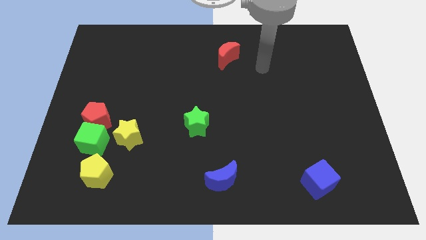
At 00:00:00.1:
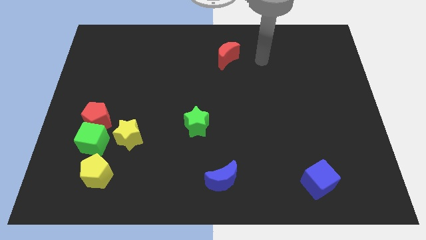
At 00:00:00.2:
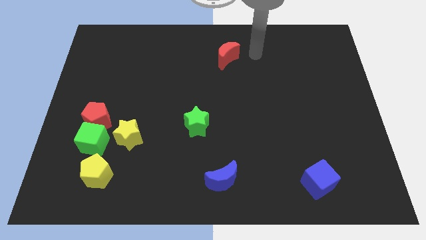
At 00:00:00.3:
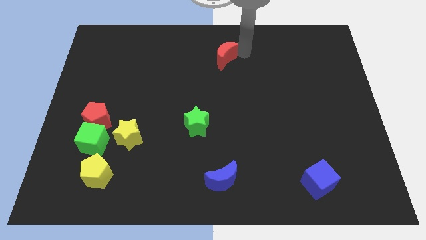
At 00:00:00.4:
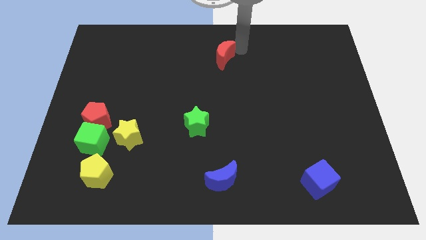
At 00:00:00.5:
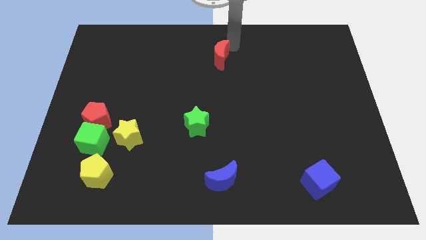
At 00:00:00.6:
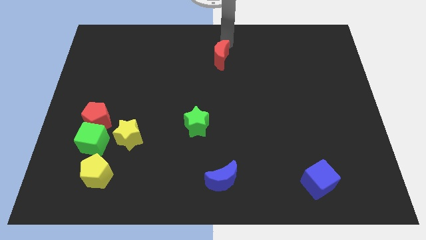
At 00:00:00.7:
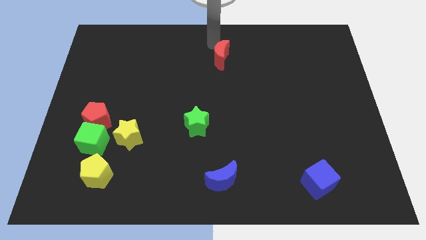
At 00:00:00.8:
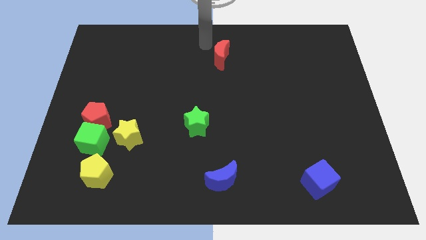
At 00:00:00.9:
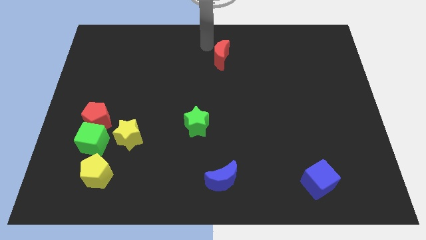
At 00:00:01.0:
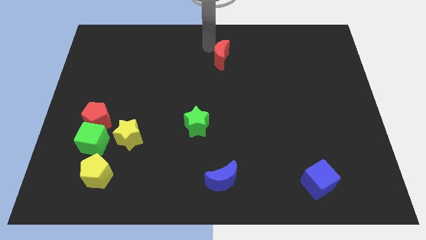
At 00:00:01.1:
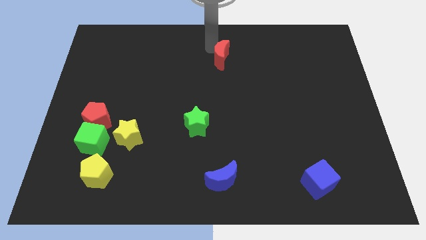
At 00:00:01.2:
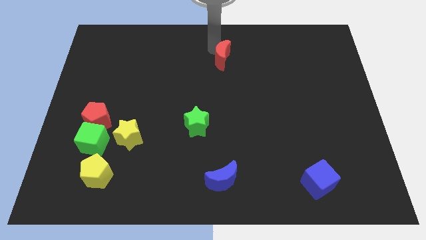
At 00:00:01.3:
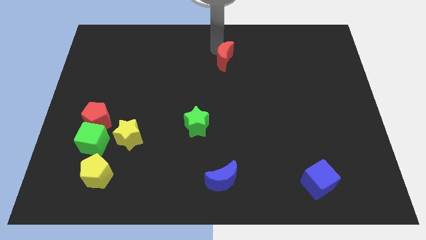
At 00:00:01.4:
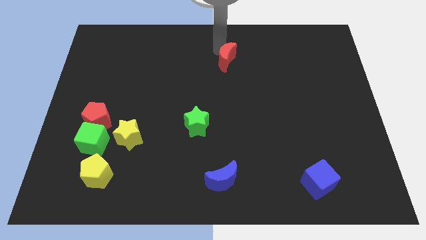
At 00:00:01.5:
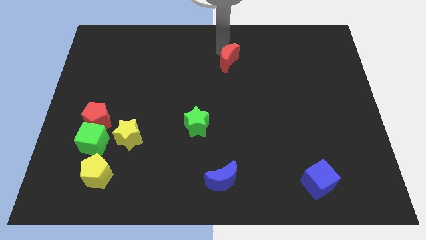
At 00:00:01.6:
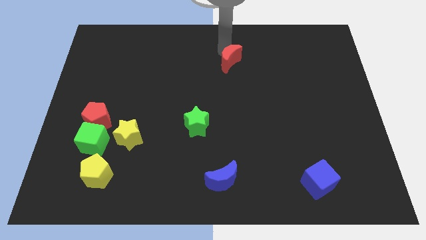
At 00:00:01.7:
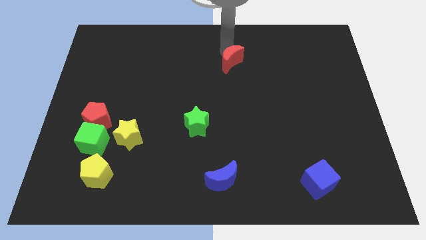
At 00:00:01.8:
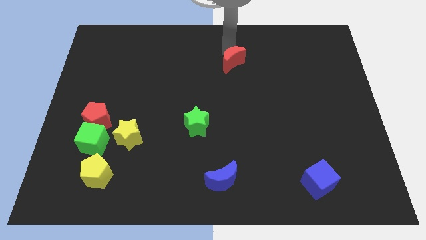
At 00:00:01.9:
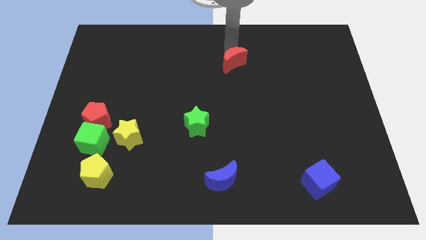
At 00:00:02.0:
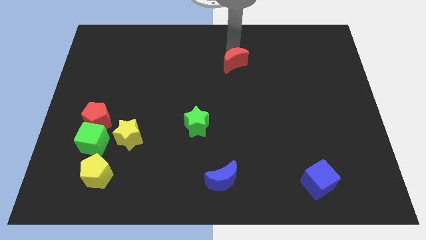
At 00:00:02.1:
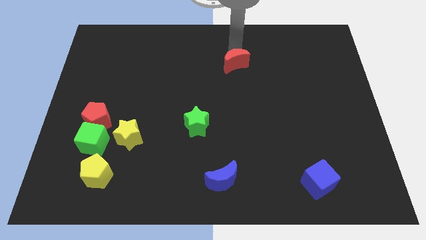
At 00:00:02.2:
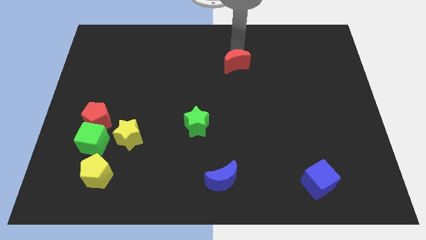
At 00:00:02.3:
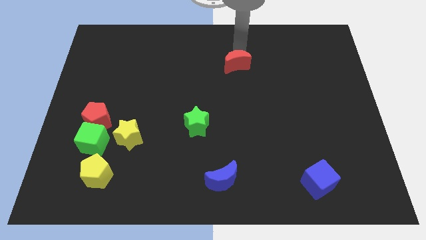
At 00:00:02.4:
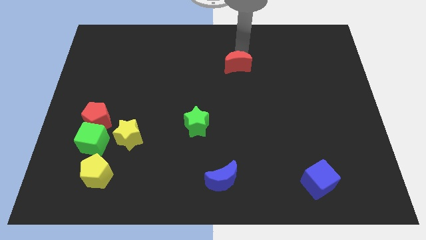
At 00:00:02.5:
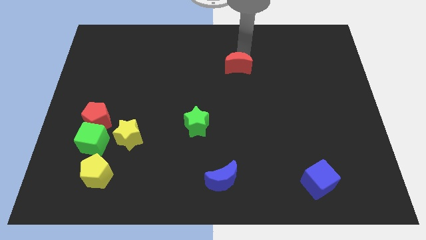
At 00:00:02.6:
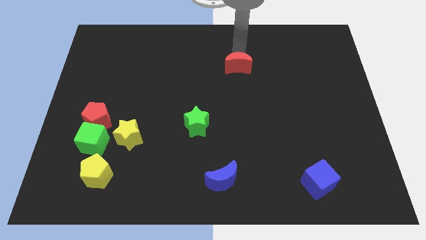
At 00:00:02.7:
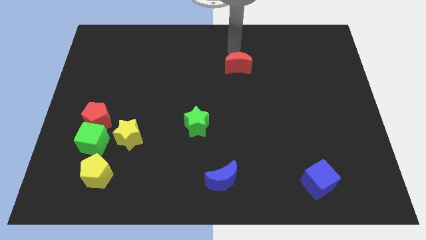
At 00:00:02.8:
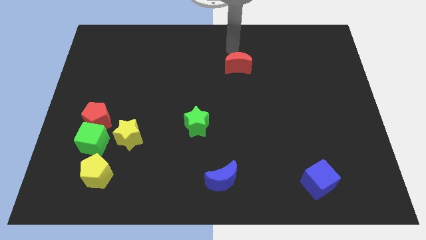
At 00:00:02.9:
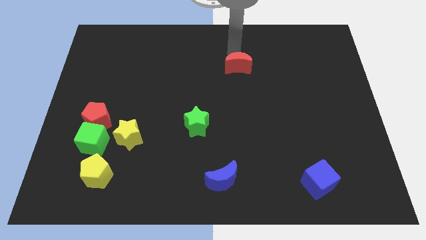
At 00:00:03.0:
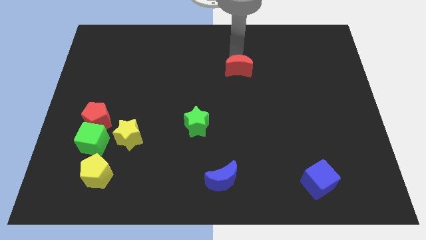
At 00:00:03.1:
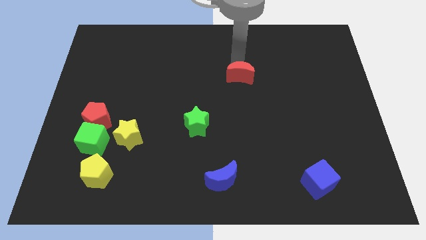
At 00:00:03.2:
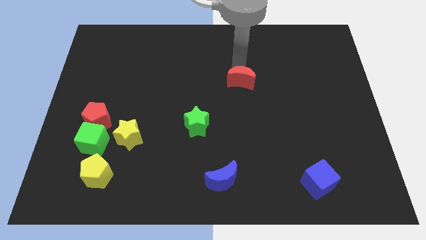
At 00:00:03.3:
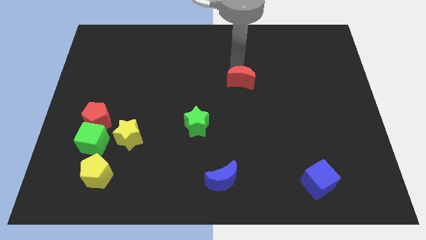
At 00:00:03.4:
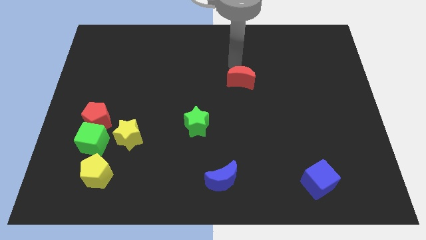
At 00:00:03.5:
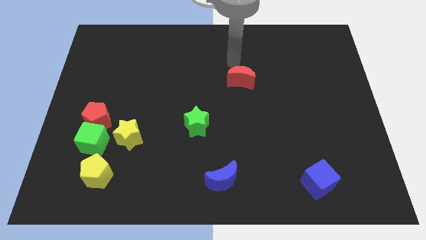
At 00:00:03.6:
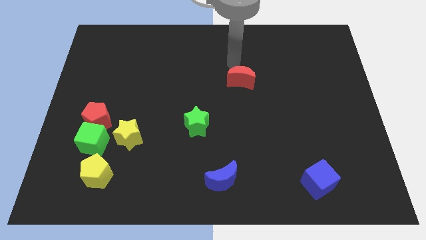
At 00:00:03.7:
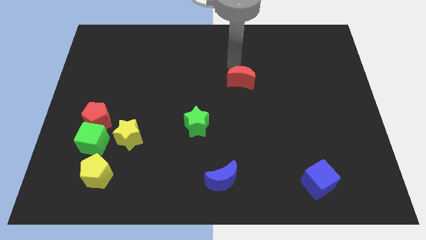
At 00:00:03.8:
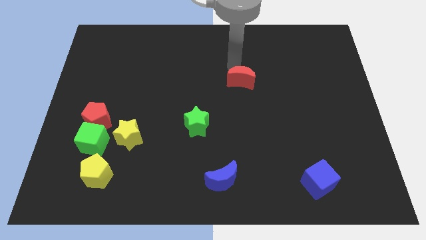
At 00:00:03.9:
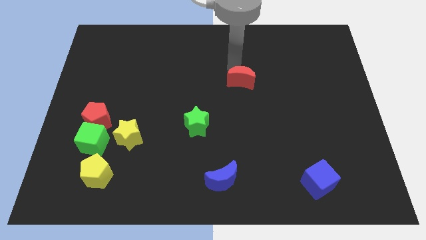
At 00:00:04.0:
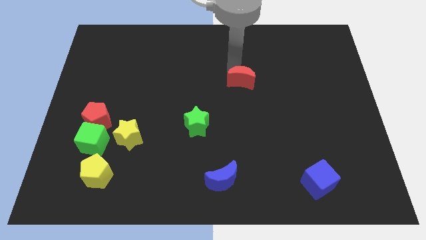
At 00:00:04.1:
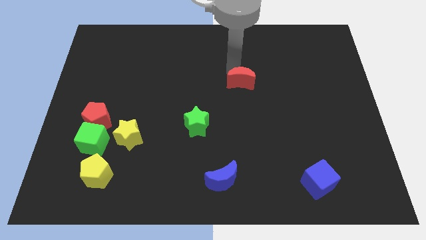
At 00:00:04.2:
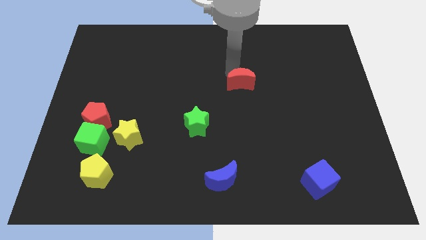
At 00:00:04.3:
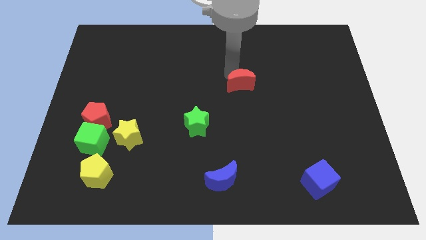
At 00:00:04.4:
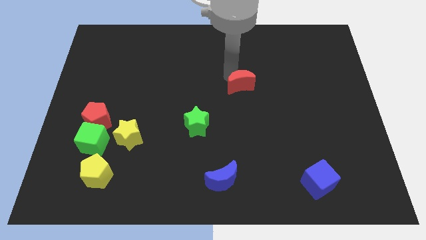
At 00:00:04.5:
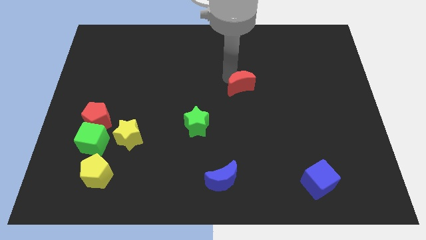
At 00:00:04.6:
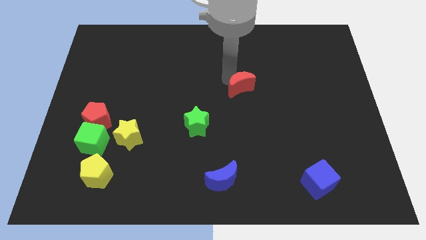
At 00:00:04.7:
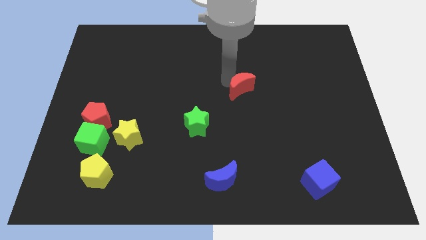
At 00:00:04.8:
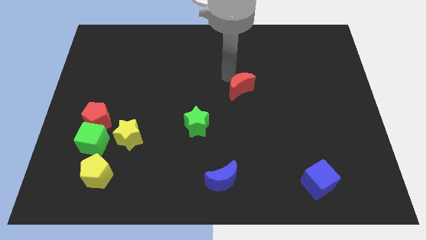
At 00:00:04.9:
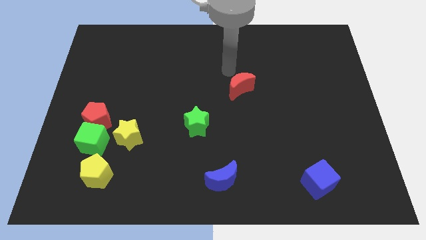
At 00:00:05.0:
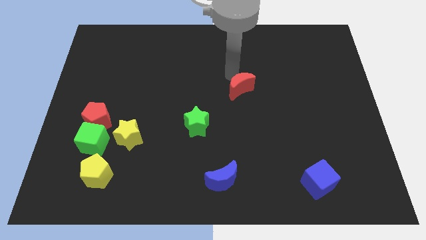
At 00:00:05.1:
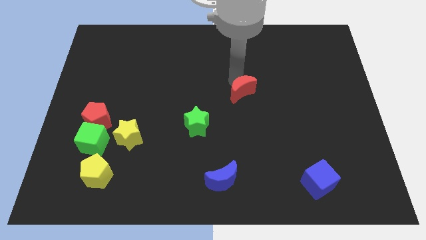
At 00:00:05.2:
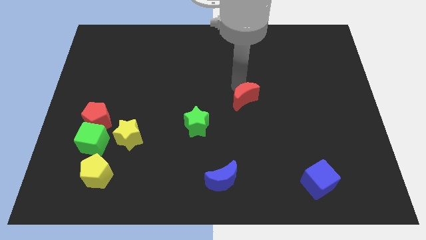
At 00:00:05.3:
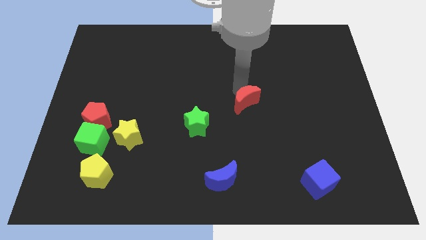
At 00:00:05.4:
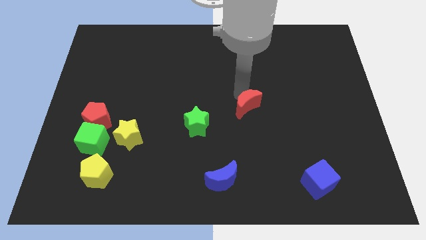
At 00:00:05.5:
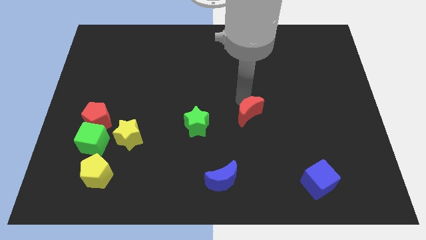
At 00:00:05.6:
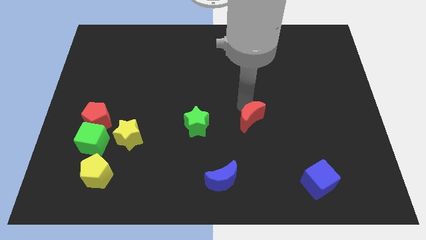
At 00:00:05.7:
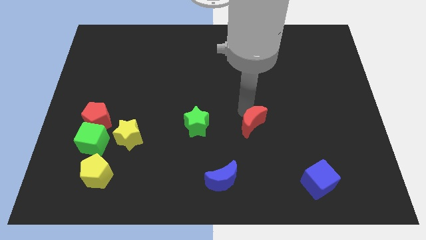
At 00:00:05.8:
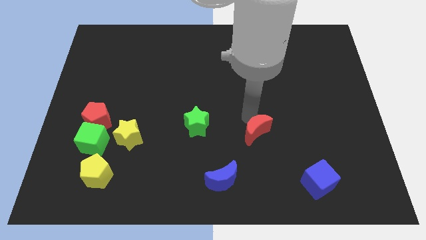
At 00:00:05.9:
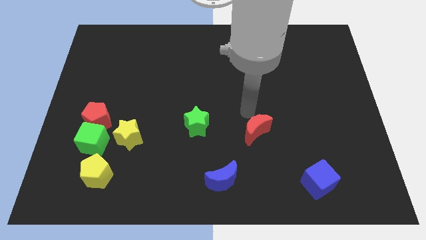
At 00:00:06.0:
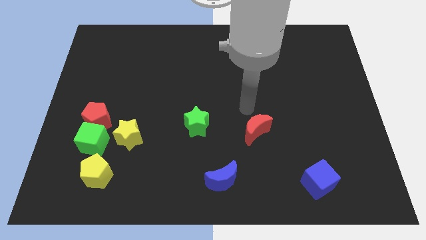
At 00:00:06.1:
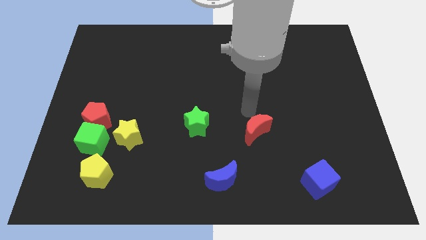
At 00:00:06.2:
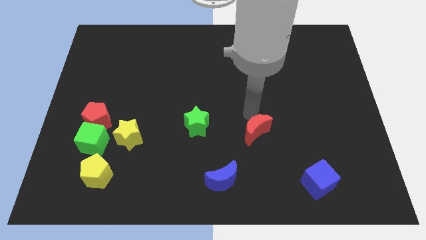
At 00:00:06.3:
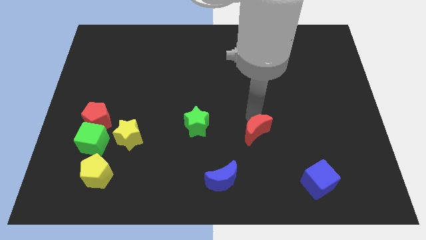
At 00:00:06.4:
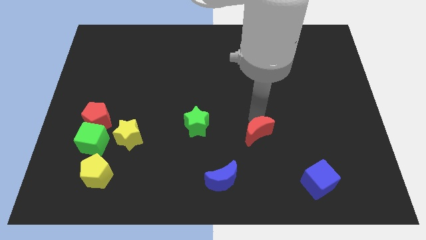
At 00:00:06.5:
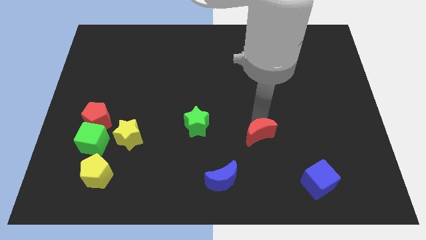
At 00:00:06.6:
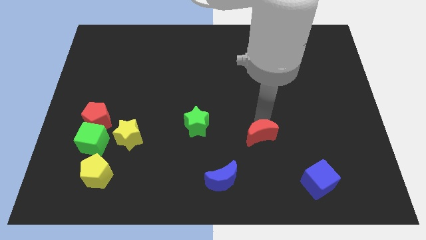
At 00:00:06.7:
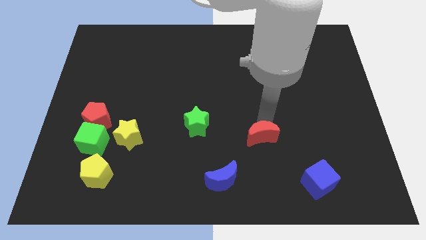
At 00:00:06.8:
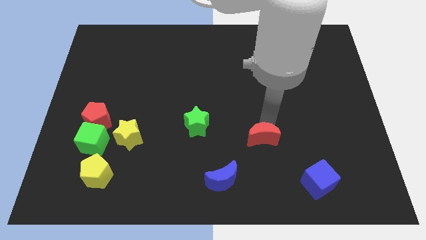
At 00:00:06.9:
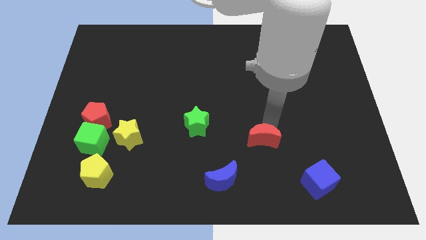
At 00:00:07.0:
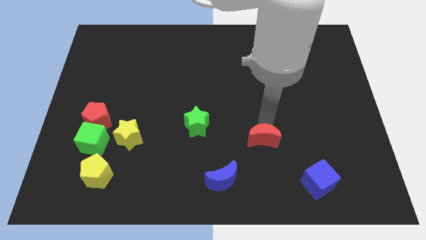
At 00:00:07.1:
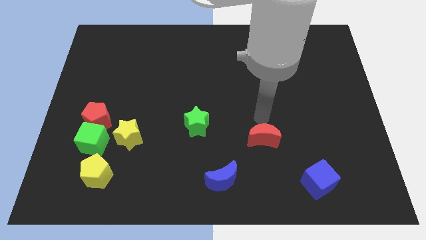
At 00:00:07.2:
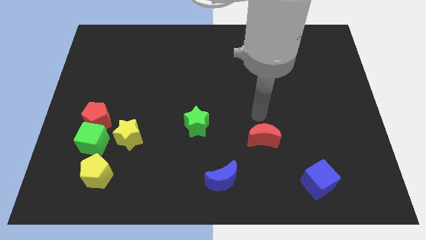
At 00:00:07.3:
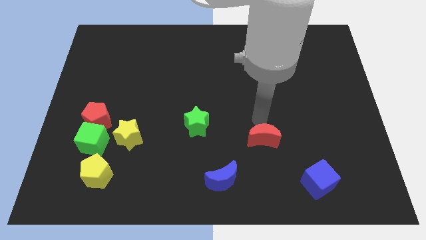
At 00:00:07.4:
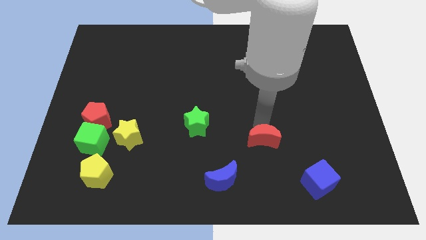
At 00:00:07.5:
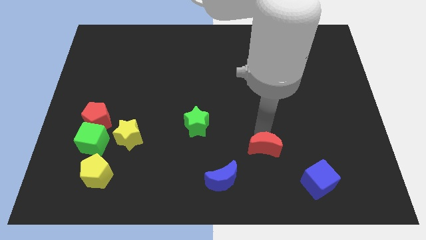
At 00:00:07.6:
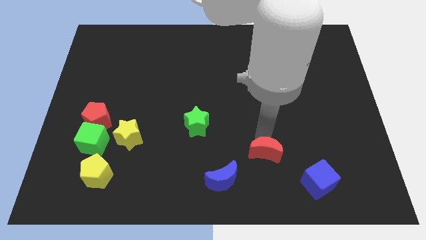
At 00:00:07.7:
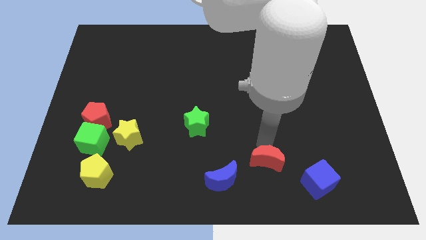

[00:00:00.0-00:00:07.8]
push the red moon just left of the blue cube
